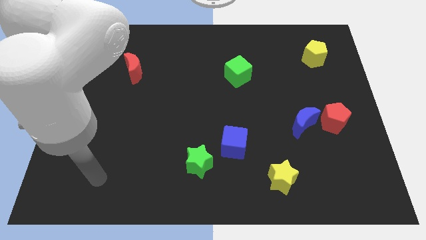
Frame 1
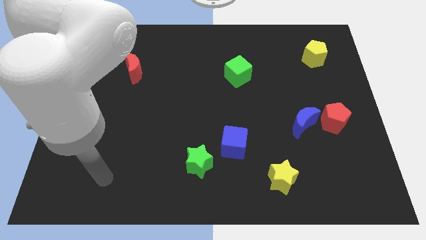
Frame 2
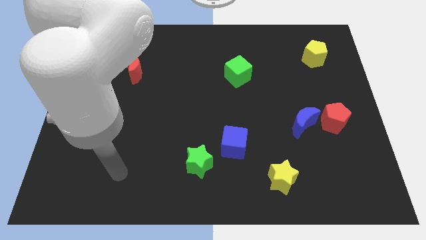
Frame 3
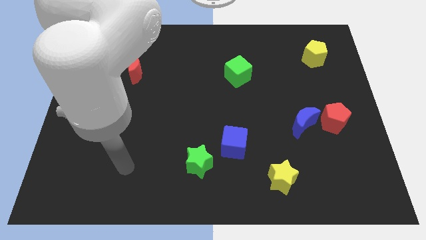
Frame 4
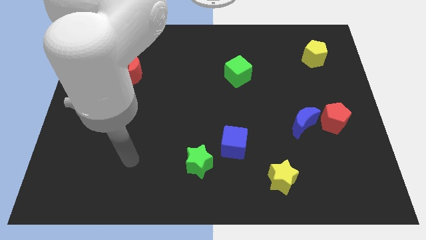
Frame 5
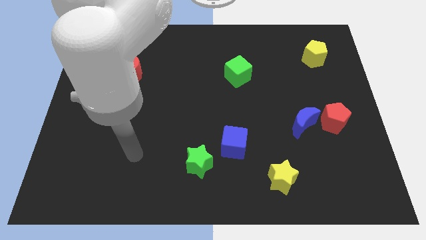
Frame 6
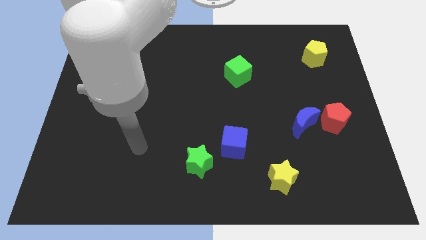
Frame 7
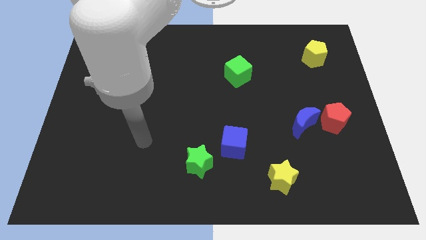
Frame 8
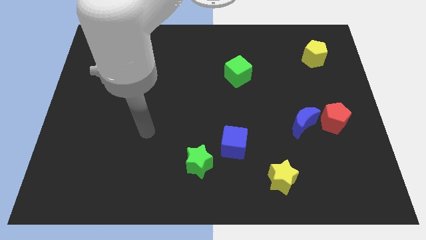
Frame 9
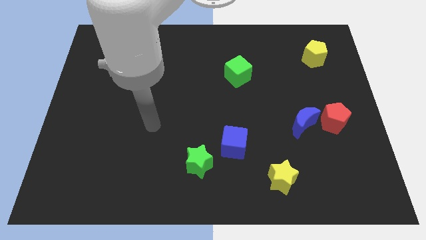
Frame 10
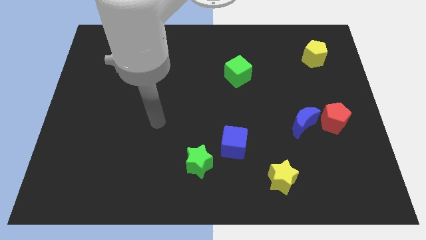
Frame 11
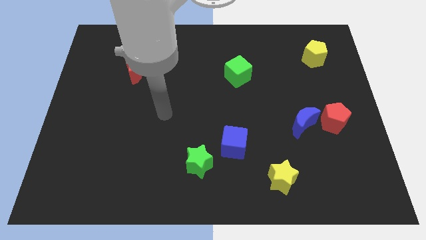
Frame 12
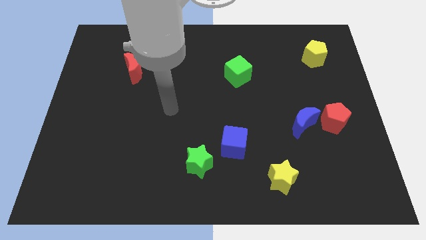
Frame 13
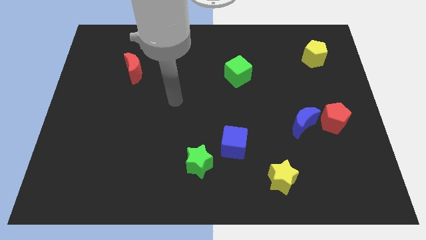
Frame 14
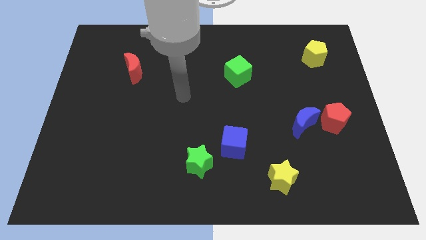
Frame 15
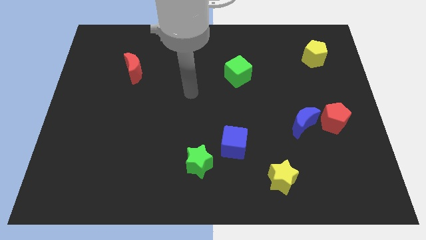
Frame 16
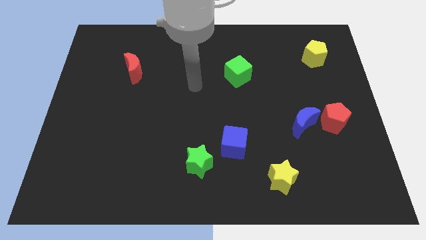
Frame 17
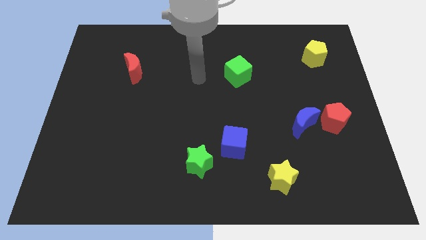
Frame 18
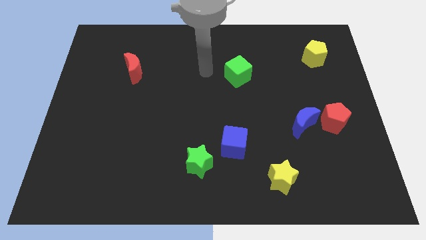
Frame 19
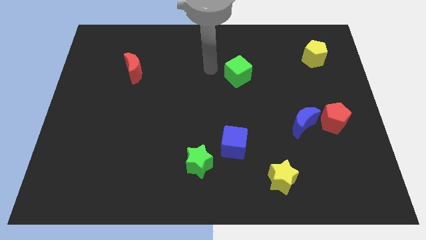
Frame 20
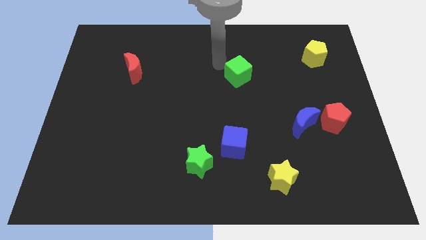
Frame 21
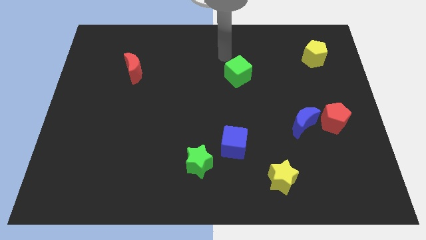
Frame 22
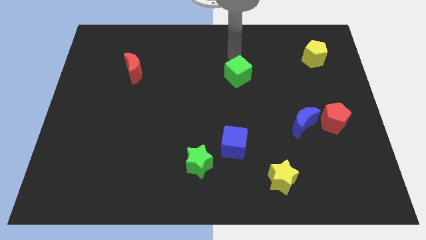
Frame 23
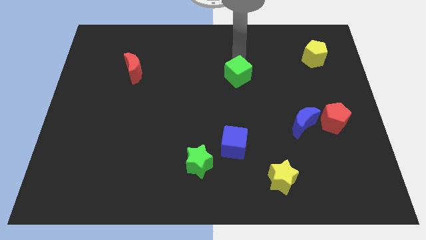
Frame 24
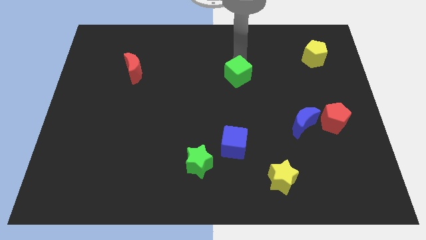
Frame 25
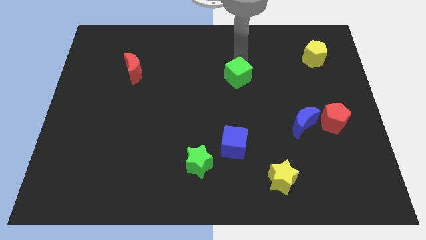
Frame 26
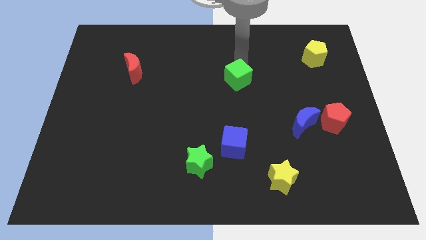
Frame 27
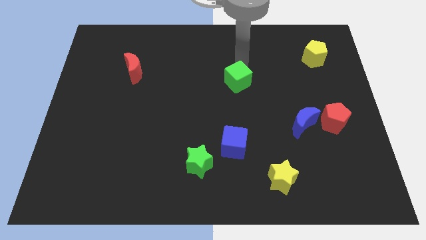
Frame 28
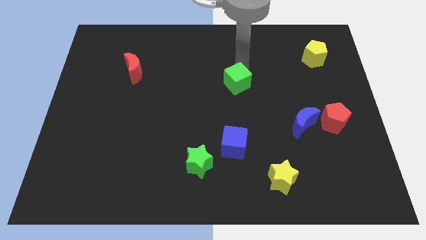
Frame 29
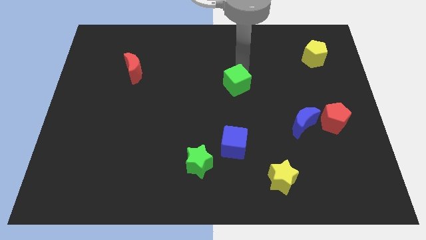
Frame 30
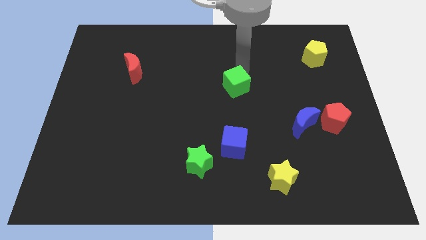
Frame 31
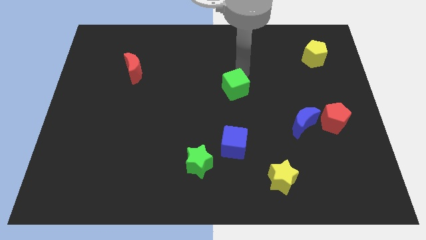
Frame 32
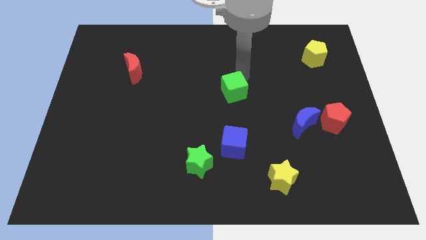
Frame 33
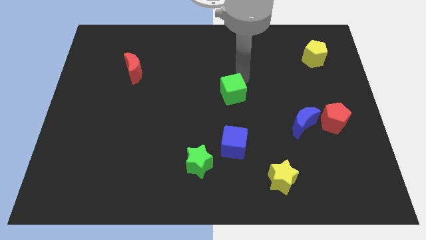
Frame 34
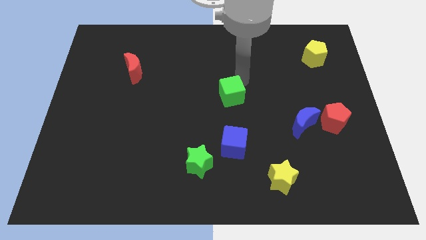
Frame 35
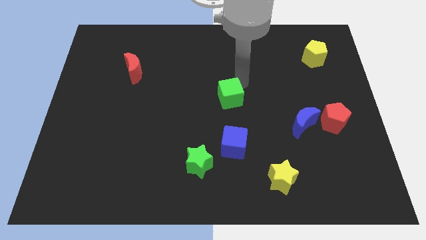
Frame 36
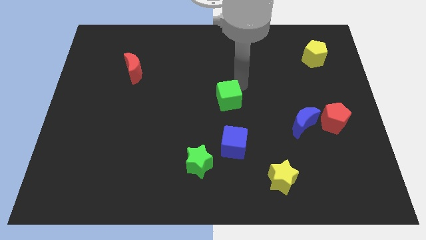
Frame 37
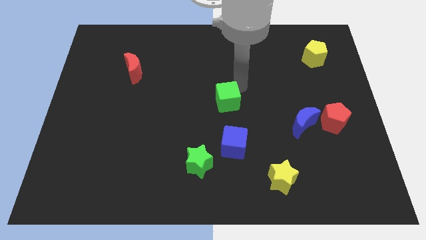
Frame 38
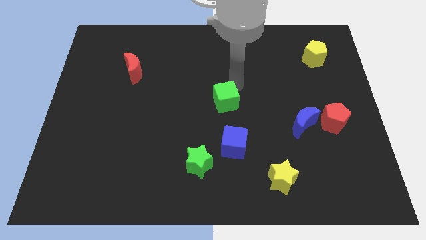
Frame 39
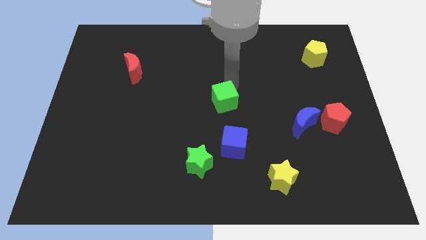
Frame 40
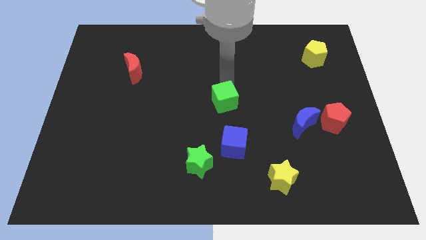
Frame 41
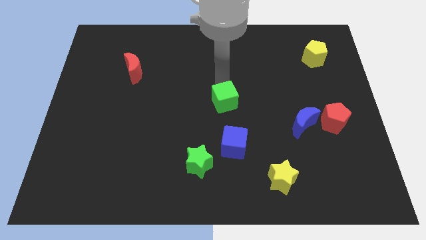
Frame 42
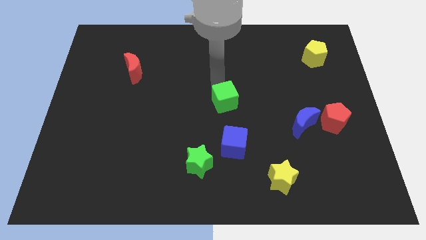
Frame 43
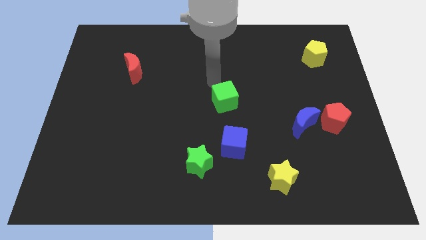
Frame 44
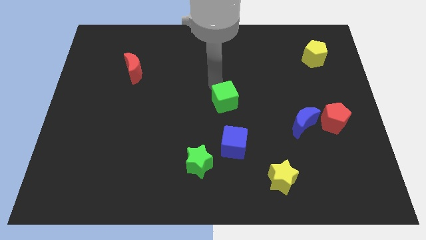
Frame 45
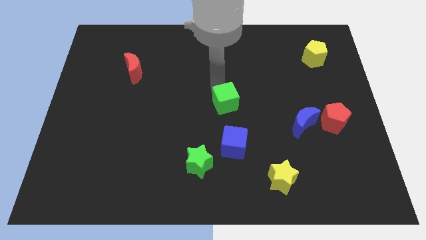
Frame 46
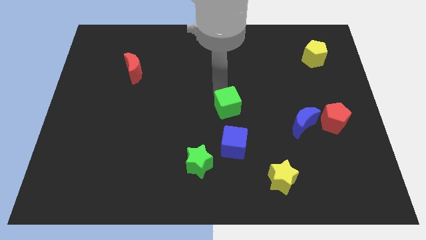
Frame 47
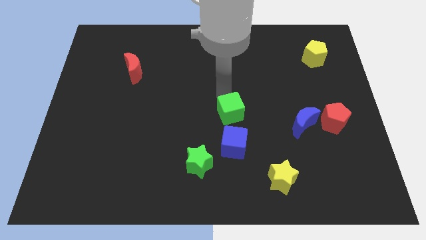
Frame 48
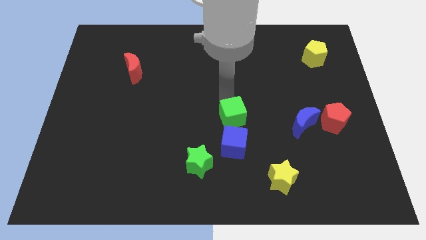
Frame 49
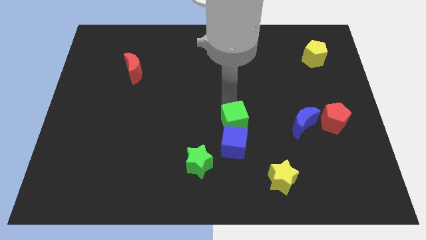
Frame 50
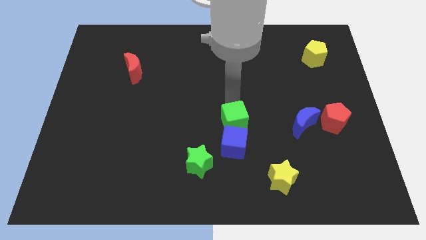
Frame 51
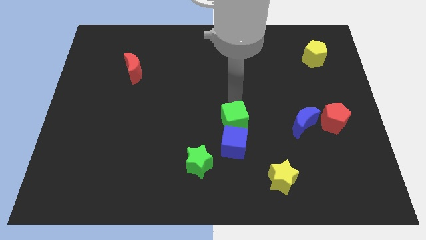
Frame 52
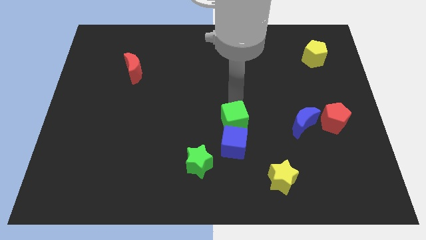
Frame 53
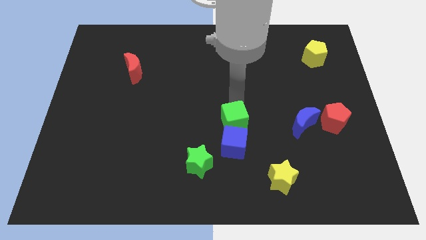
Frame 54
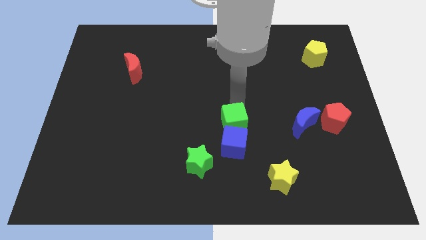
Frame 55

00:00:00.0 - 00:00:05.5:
slide the green cube to the blue cube

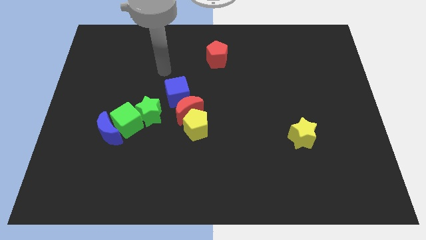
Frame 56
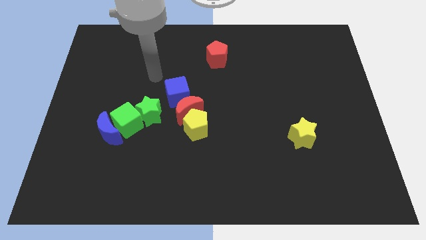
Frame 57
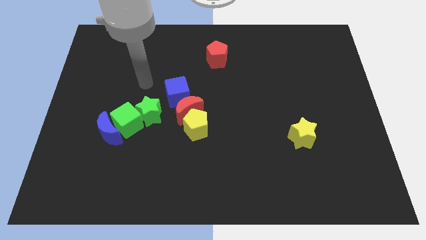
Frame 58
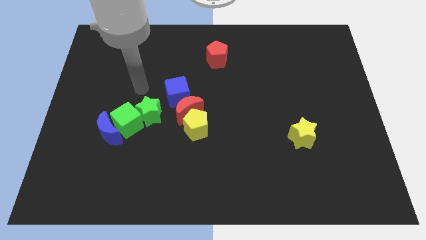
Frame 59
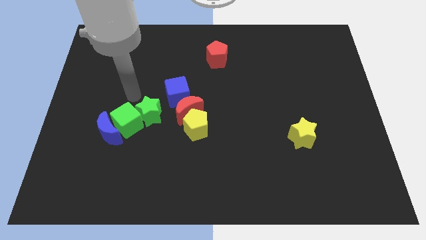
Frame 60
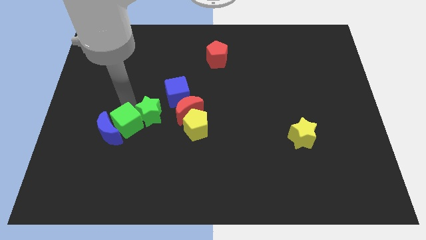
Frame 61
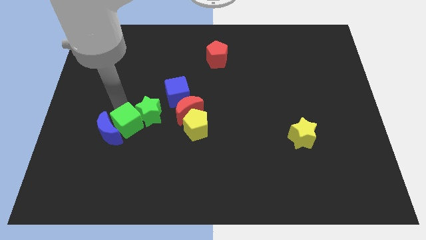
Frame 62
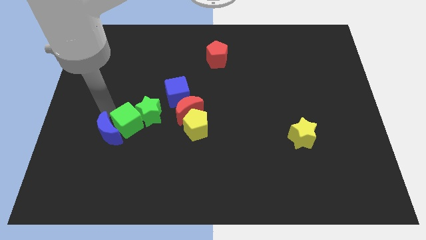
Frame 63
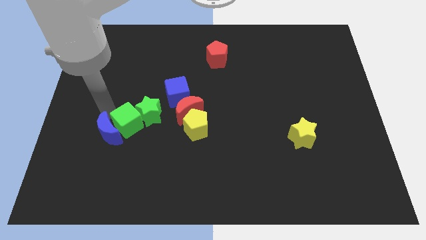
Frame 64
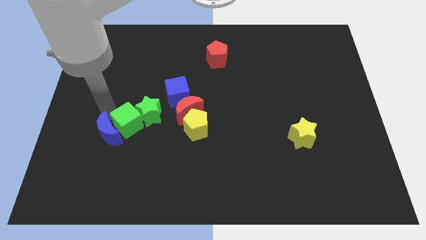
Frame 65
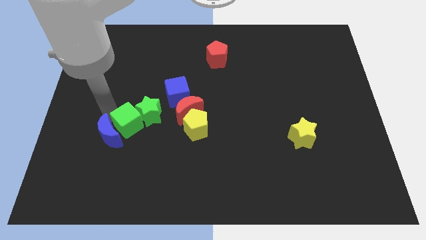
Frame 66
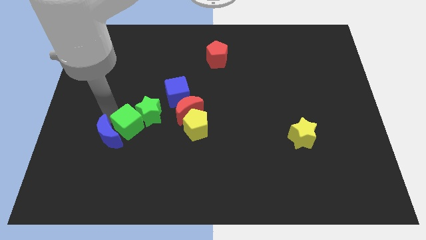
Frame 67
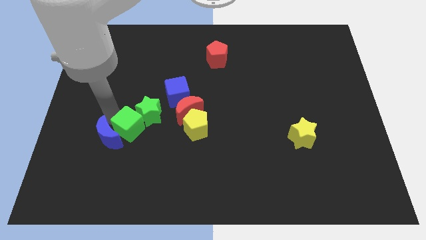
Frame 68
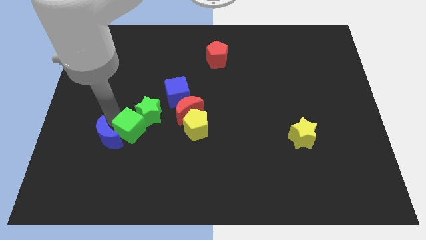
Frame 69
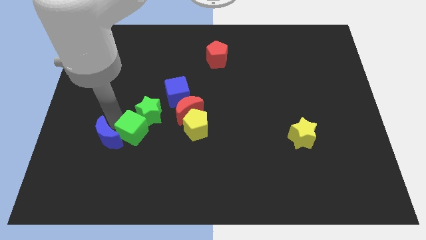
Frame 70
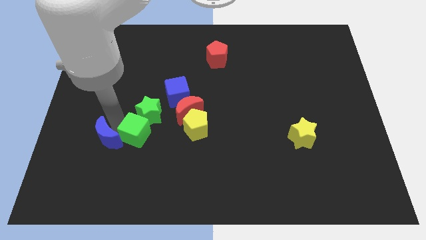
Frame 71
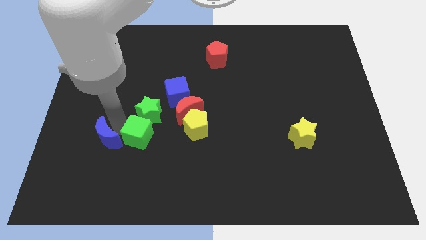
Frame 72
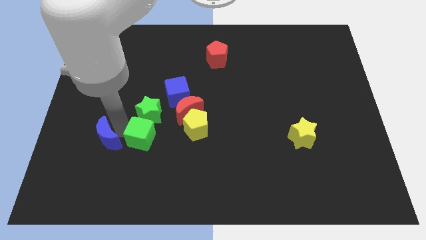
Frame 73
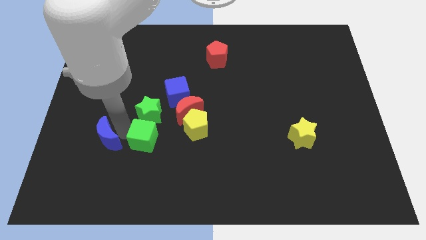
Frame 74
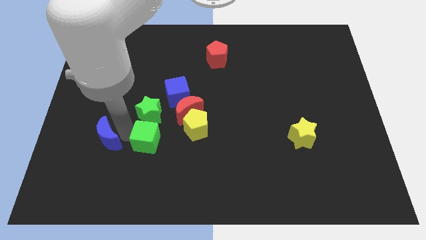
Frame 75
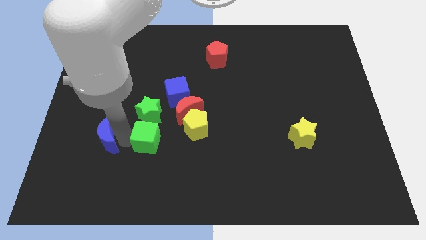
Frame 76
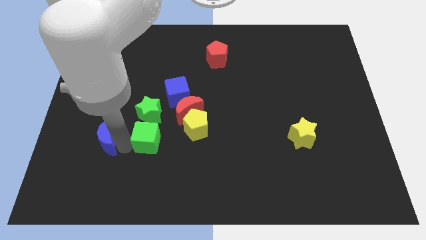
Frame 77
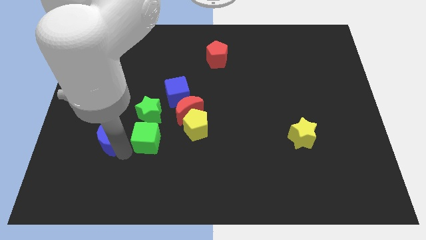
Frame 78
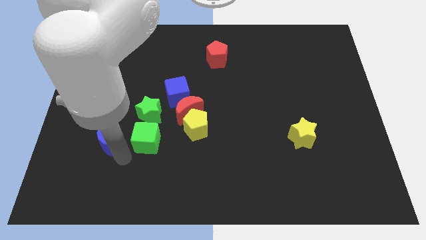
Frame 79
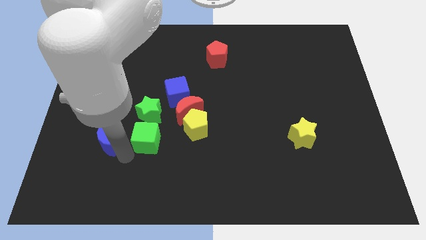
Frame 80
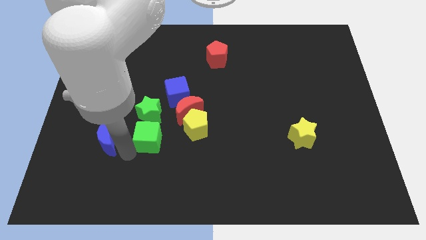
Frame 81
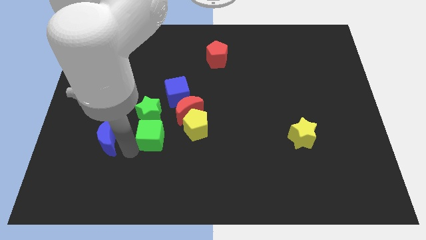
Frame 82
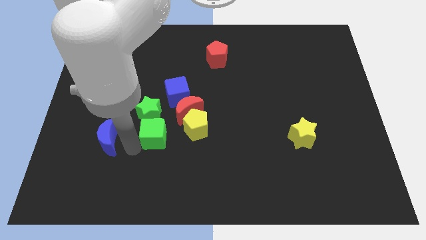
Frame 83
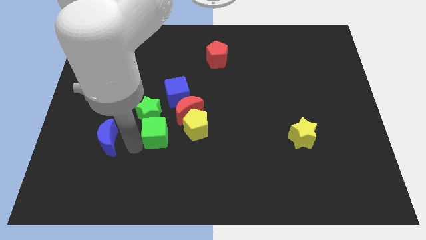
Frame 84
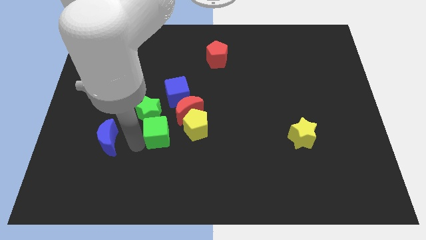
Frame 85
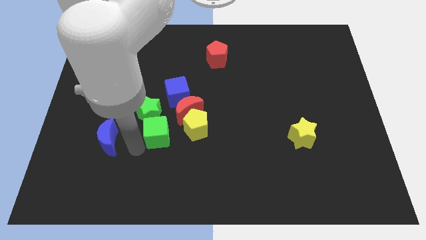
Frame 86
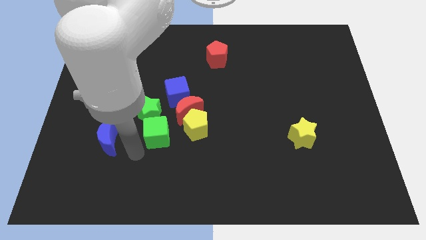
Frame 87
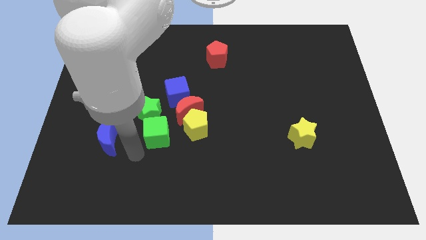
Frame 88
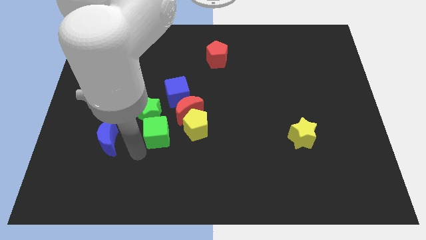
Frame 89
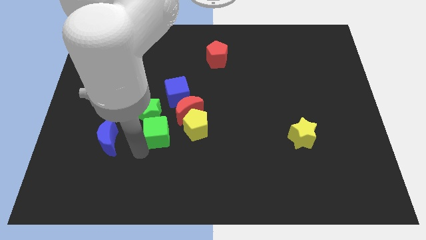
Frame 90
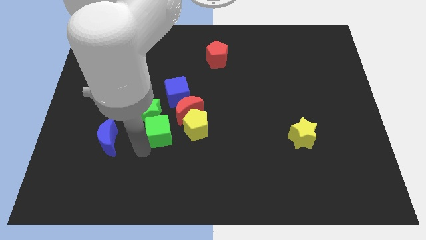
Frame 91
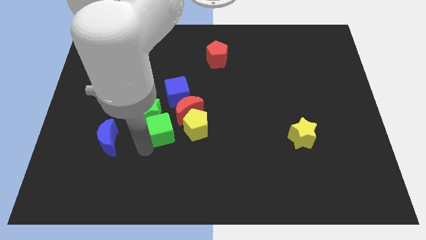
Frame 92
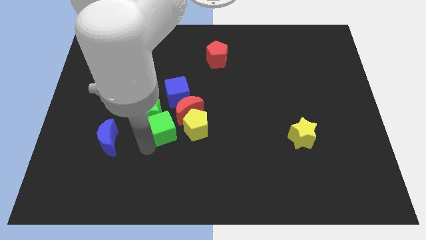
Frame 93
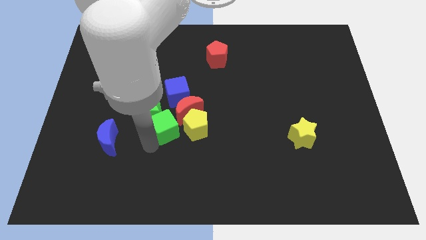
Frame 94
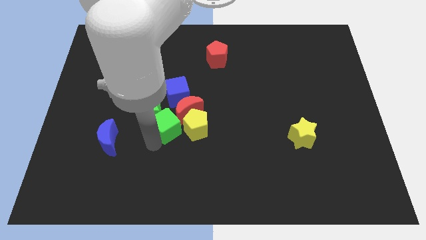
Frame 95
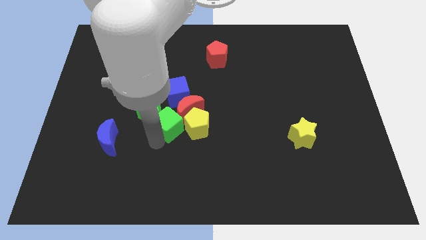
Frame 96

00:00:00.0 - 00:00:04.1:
put the green cube towards the red moon
